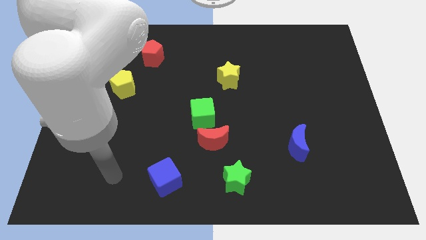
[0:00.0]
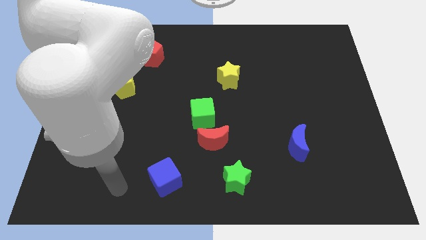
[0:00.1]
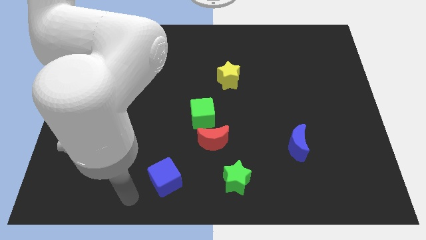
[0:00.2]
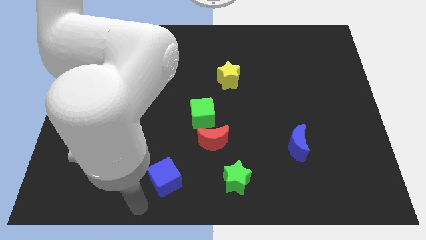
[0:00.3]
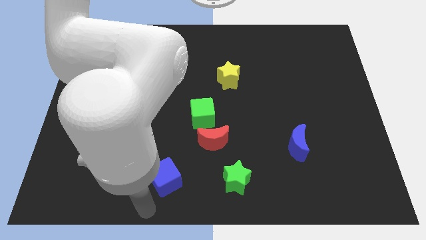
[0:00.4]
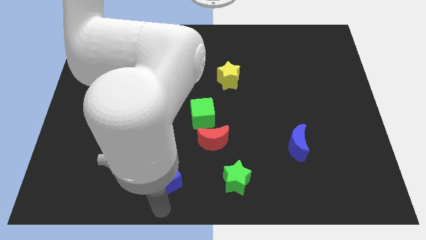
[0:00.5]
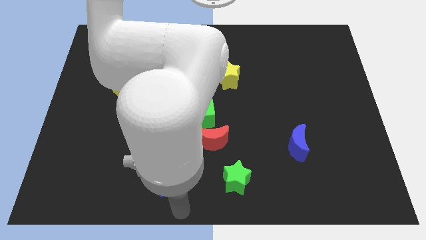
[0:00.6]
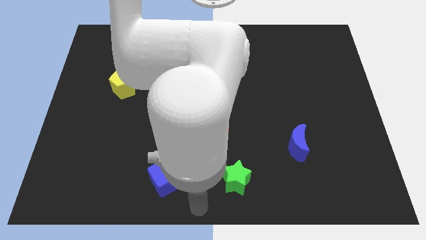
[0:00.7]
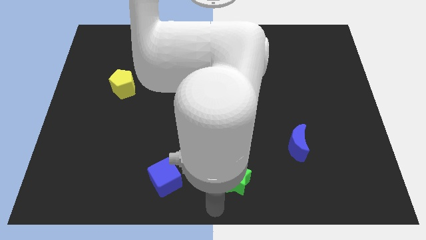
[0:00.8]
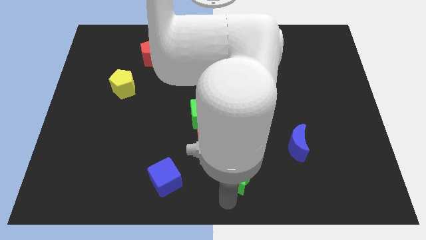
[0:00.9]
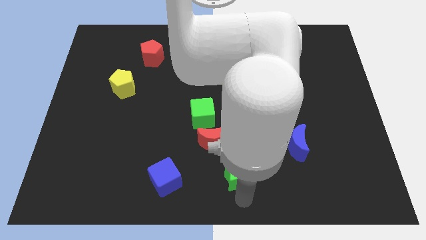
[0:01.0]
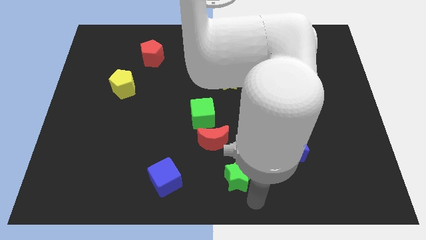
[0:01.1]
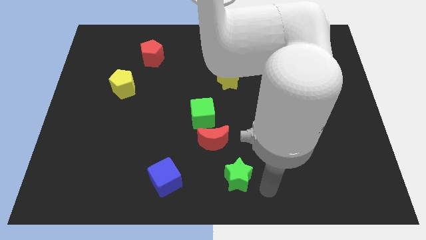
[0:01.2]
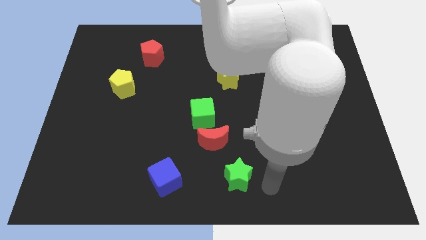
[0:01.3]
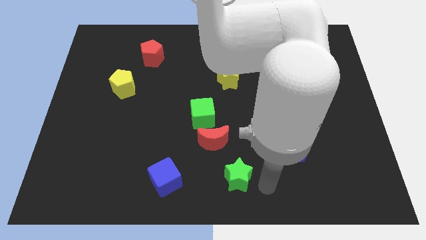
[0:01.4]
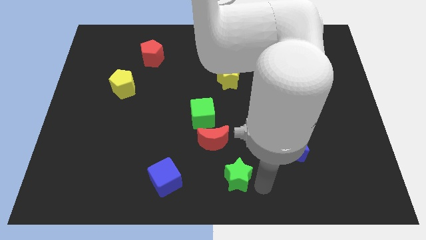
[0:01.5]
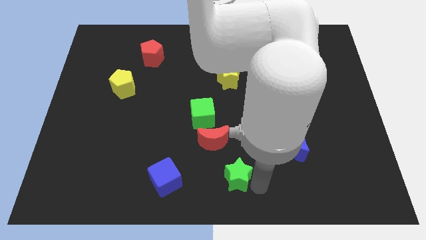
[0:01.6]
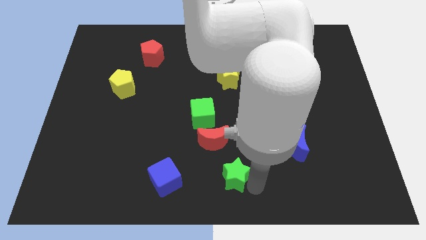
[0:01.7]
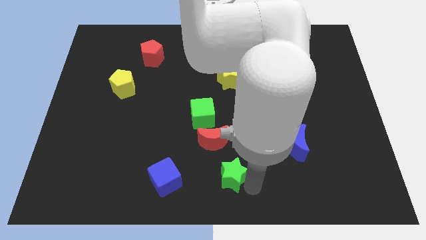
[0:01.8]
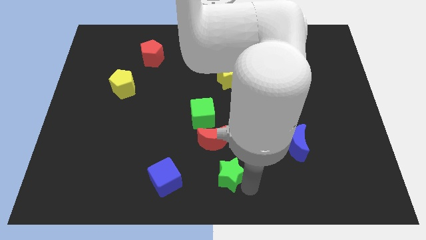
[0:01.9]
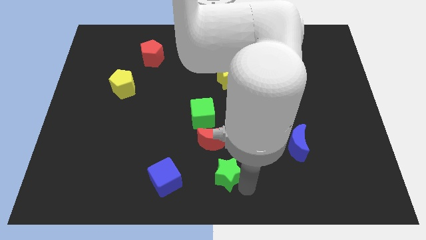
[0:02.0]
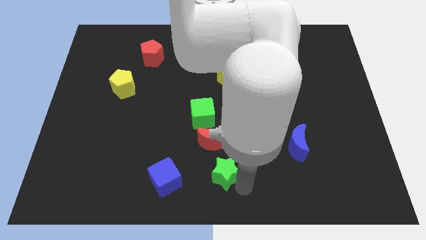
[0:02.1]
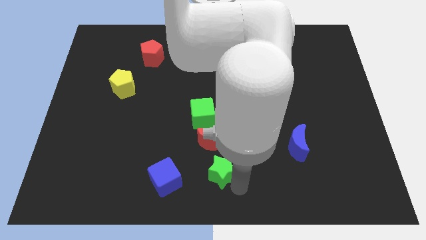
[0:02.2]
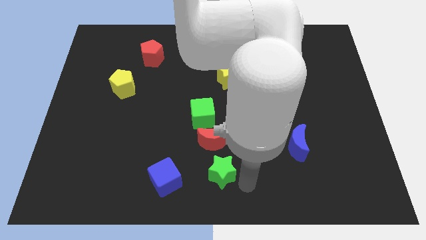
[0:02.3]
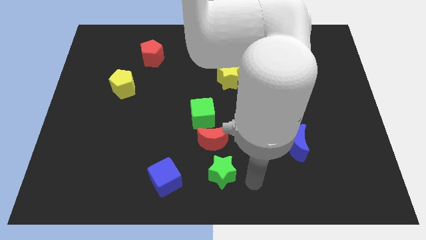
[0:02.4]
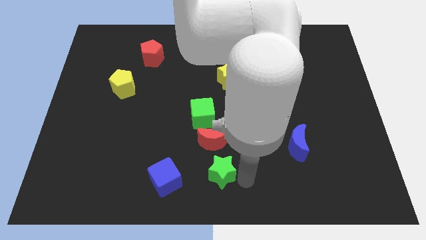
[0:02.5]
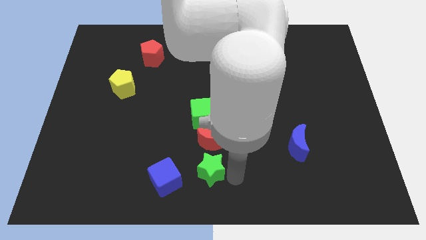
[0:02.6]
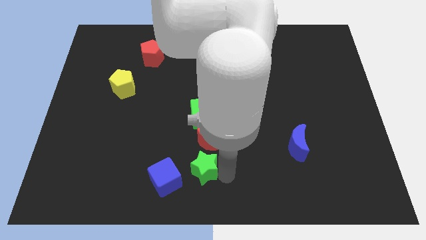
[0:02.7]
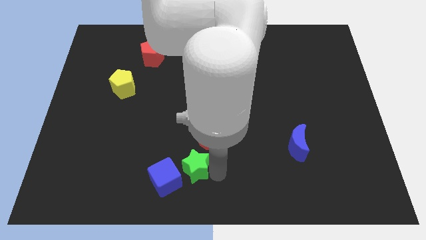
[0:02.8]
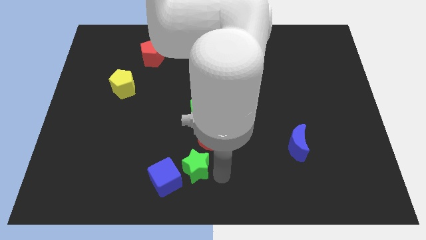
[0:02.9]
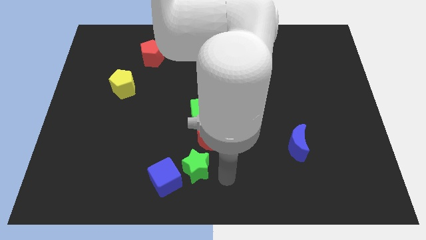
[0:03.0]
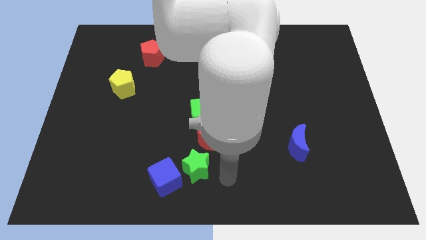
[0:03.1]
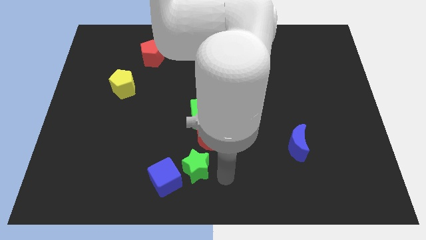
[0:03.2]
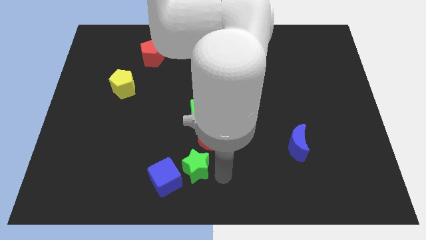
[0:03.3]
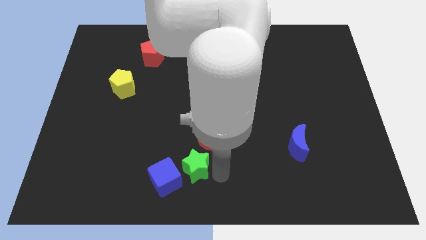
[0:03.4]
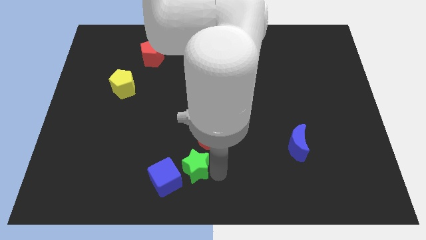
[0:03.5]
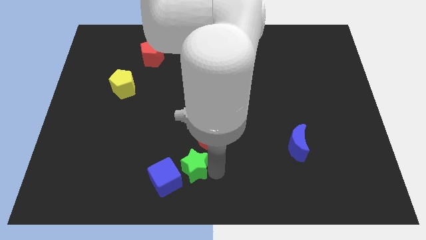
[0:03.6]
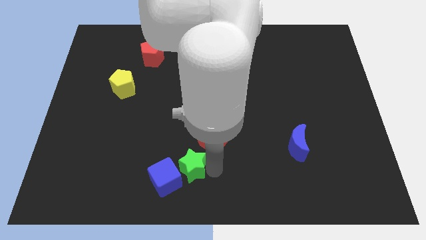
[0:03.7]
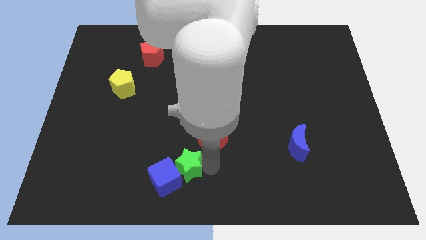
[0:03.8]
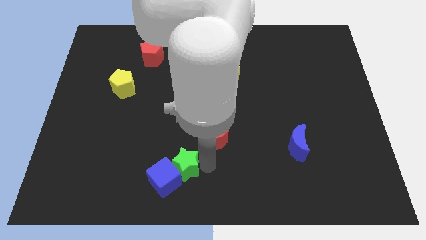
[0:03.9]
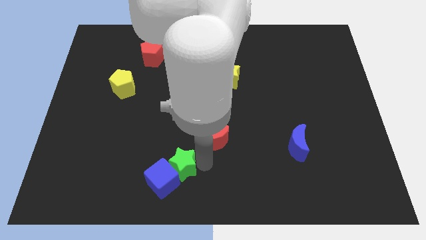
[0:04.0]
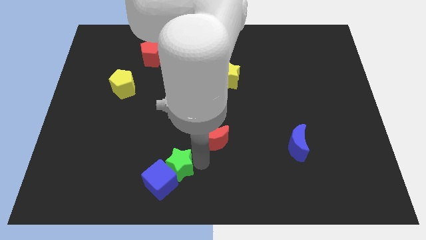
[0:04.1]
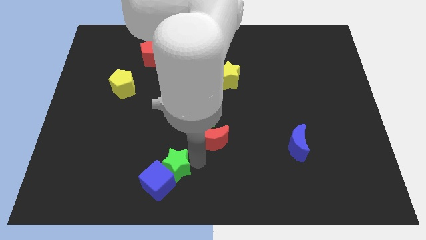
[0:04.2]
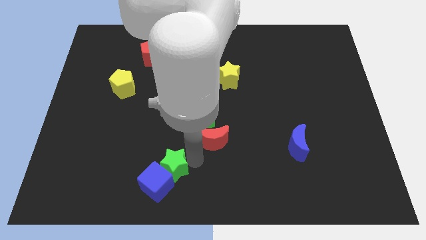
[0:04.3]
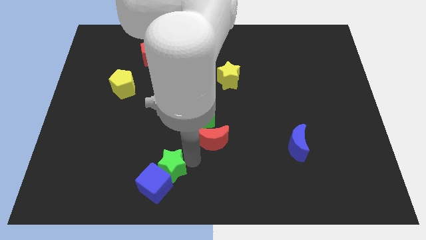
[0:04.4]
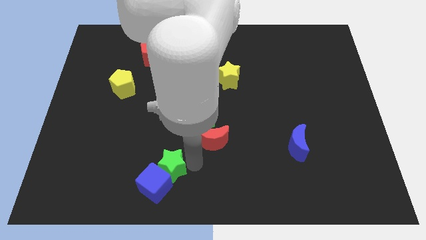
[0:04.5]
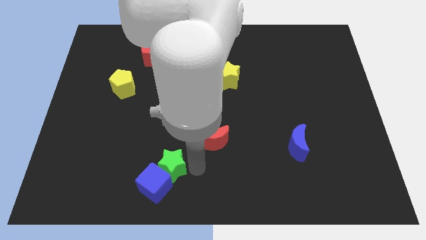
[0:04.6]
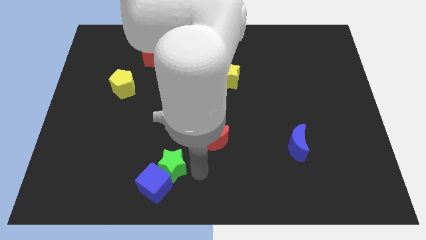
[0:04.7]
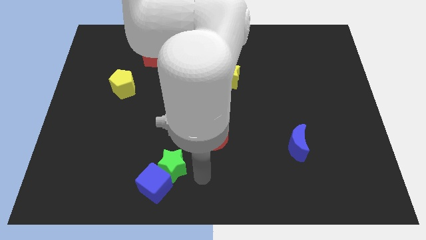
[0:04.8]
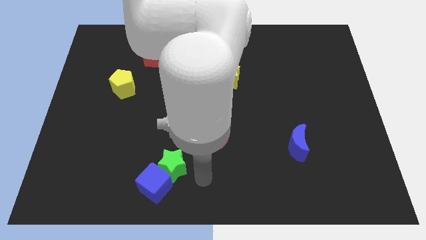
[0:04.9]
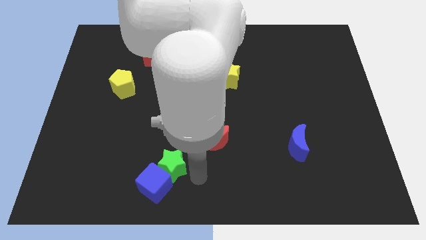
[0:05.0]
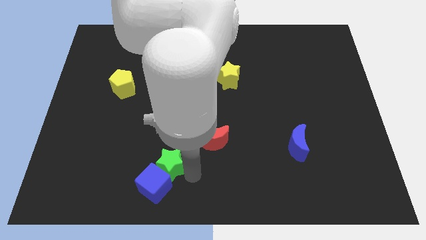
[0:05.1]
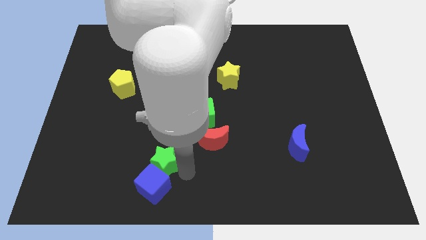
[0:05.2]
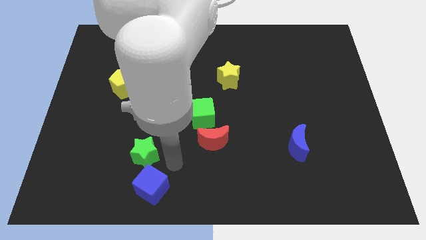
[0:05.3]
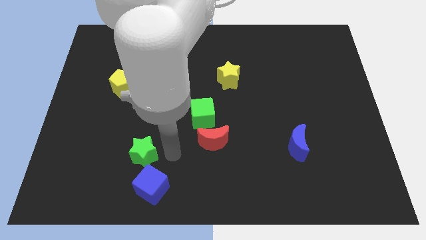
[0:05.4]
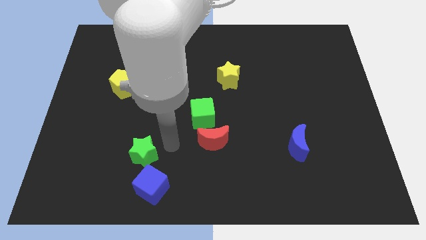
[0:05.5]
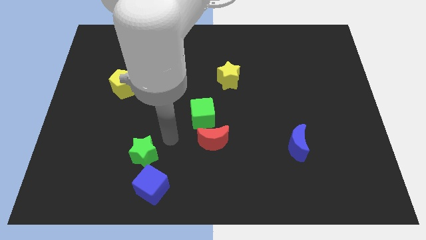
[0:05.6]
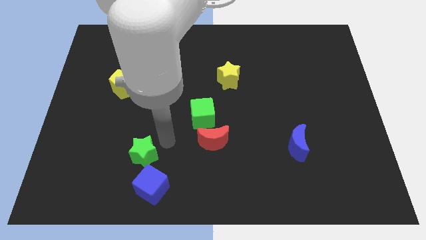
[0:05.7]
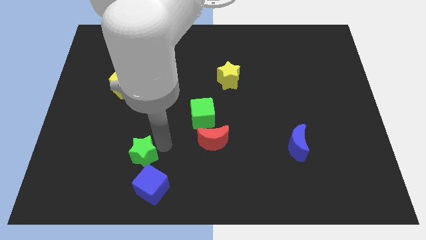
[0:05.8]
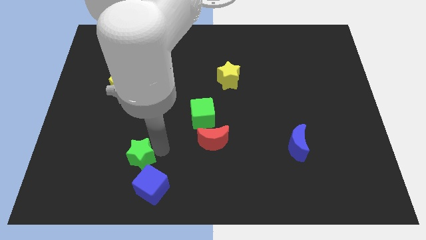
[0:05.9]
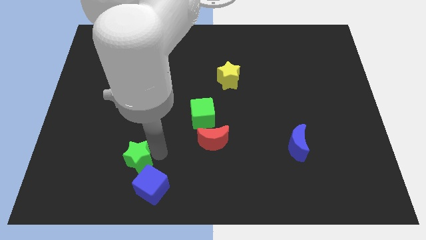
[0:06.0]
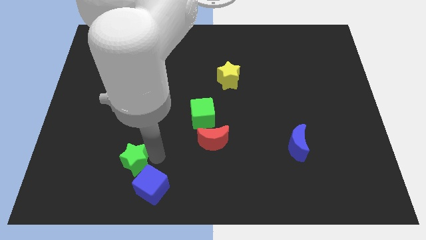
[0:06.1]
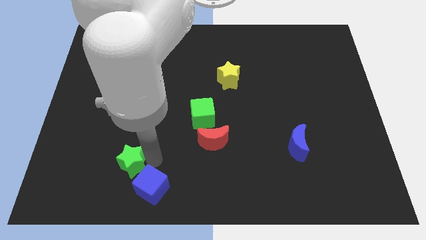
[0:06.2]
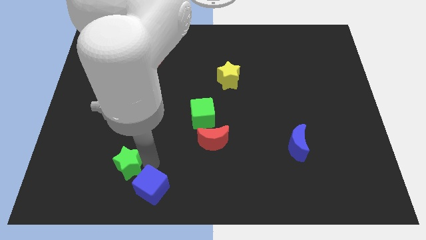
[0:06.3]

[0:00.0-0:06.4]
slide the green star to the left of the blue cube

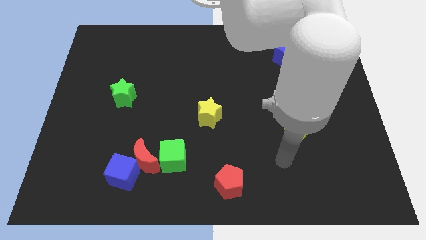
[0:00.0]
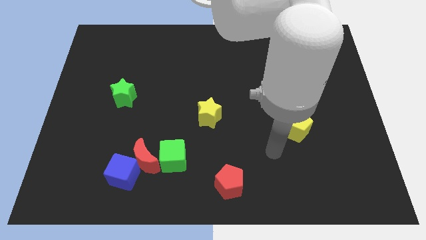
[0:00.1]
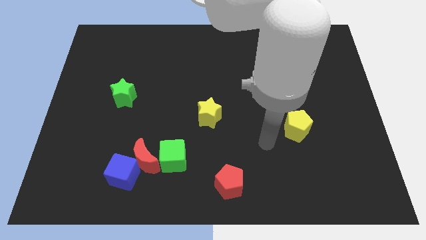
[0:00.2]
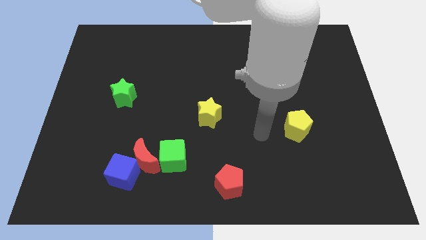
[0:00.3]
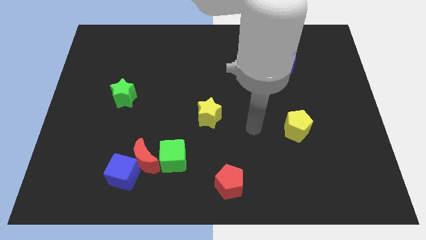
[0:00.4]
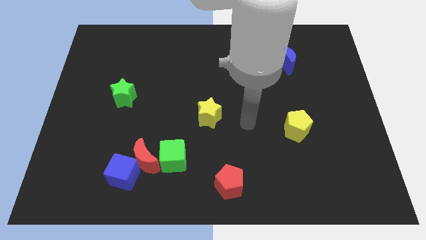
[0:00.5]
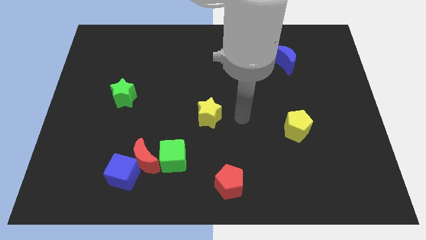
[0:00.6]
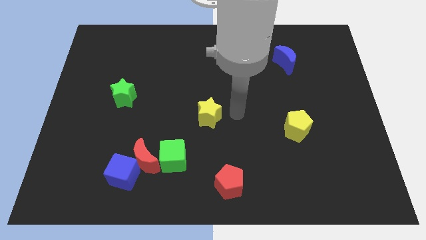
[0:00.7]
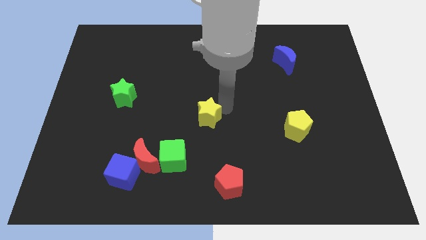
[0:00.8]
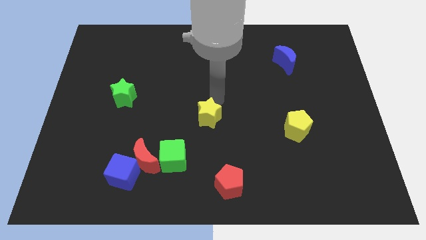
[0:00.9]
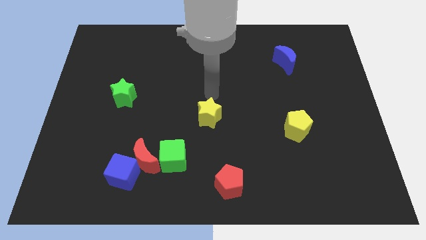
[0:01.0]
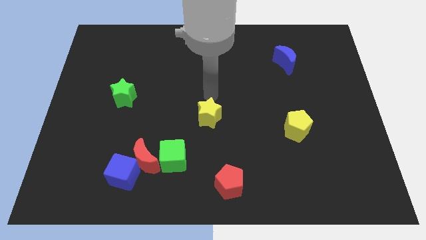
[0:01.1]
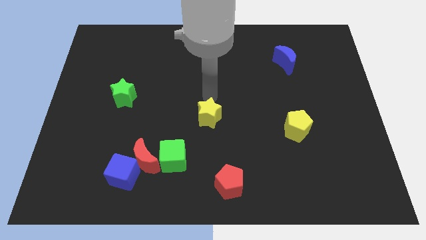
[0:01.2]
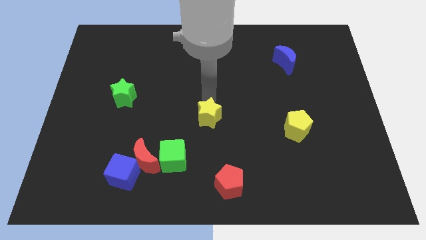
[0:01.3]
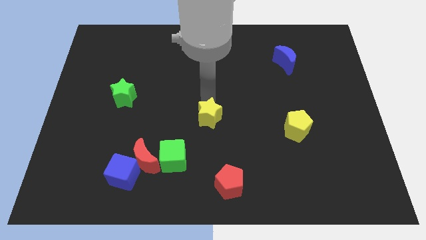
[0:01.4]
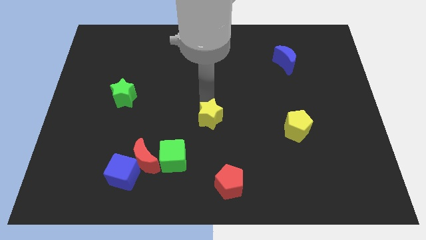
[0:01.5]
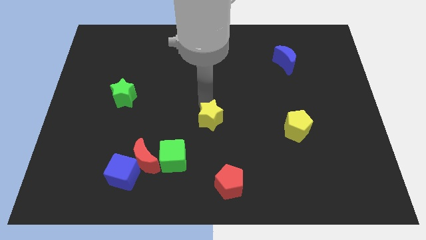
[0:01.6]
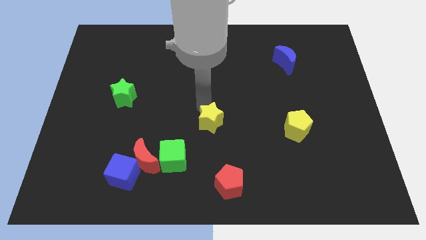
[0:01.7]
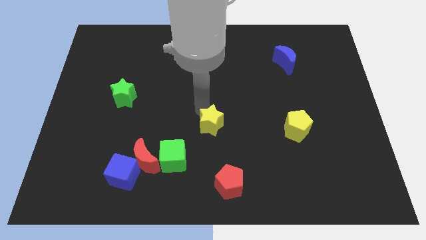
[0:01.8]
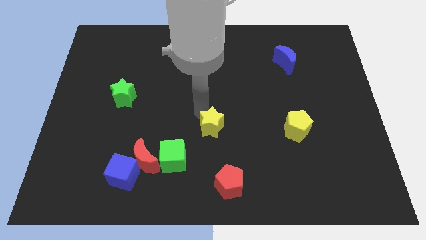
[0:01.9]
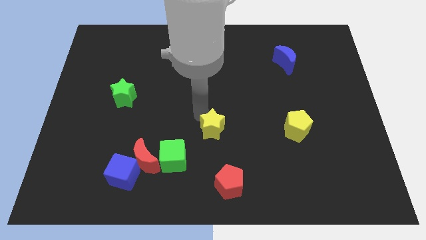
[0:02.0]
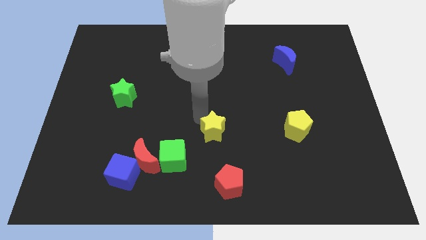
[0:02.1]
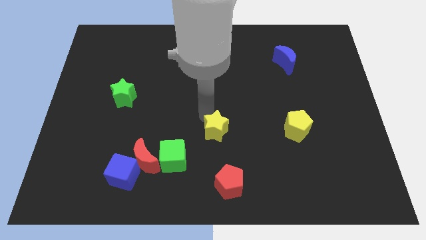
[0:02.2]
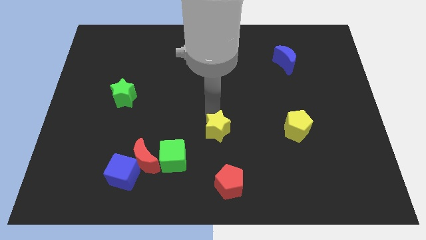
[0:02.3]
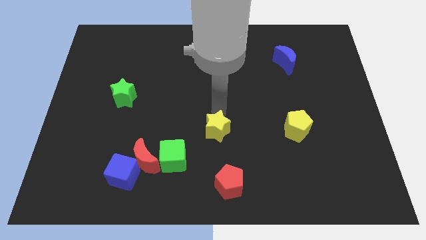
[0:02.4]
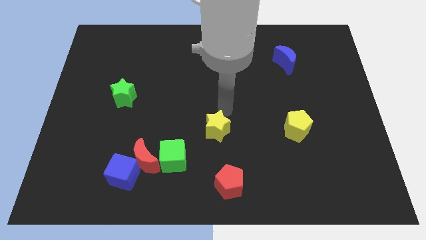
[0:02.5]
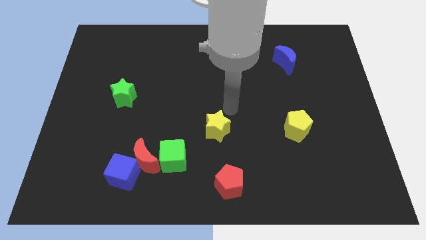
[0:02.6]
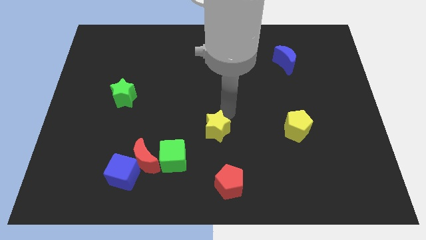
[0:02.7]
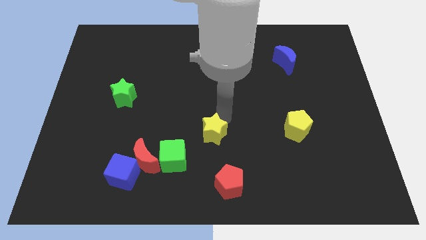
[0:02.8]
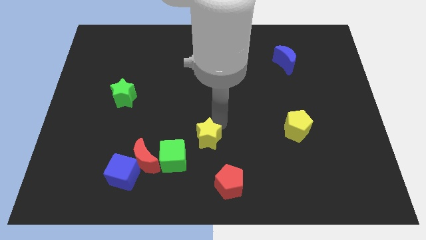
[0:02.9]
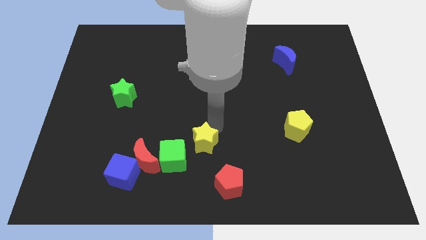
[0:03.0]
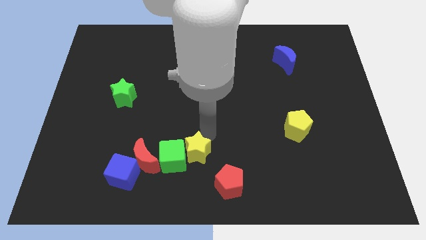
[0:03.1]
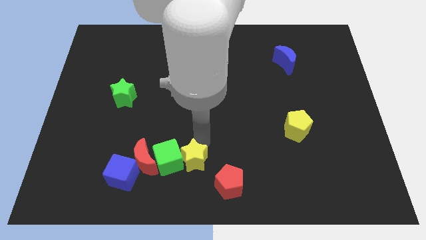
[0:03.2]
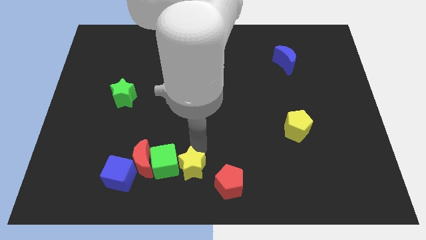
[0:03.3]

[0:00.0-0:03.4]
slide the yellow star to the left side of the red pentagon
